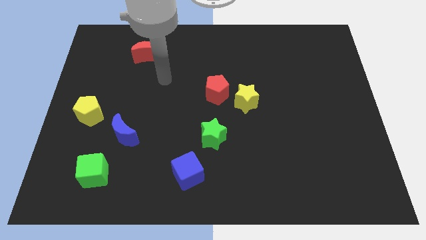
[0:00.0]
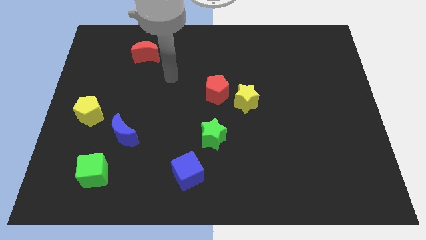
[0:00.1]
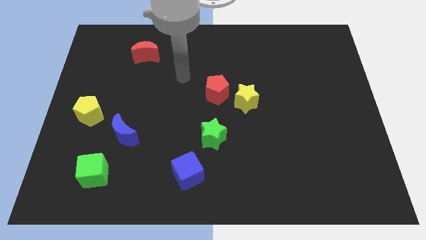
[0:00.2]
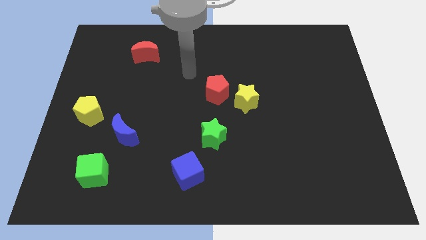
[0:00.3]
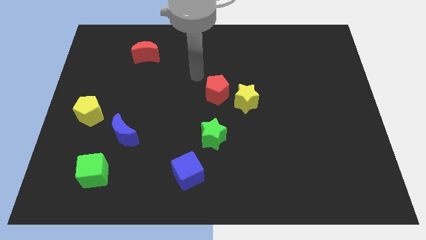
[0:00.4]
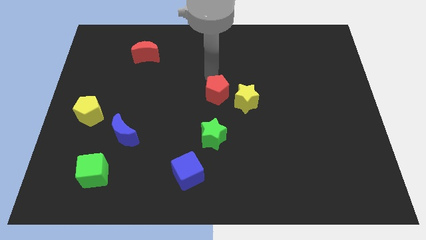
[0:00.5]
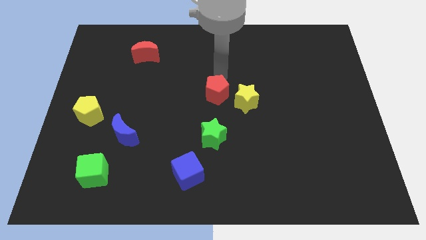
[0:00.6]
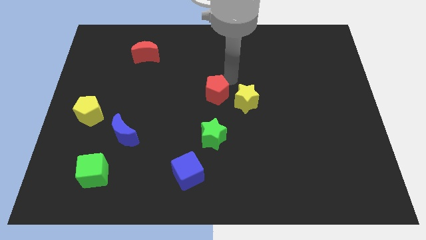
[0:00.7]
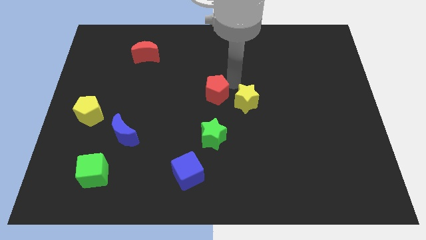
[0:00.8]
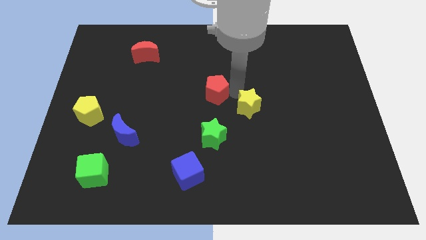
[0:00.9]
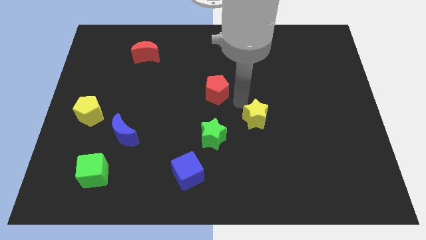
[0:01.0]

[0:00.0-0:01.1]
pull the red pentagon apart from the yellow star

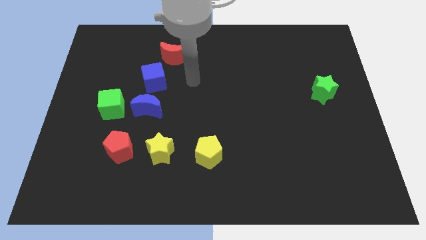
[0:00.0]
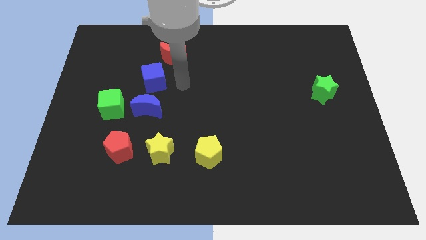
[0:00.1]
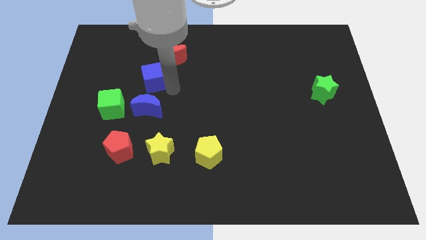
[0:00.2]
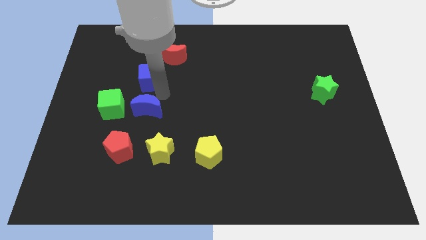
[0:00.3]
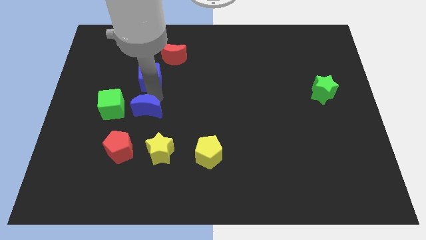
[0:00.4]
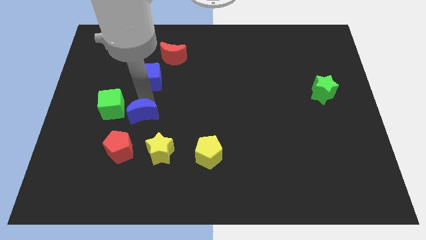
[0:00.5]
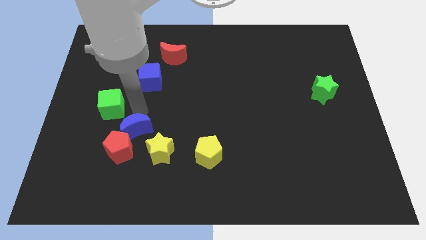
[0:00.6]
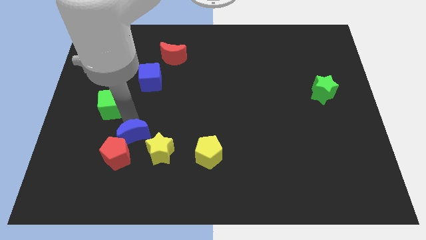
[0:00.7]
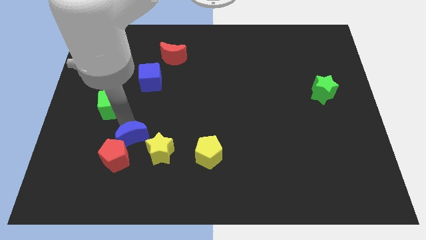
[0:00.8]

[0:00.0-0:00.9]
move the green cube away from the blue moon

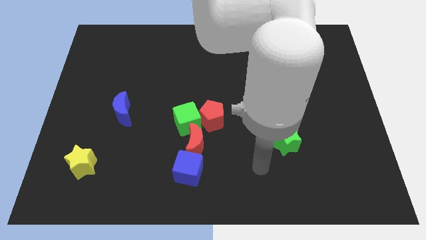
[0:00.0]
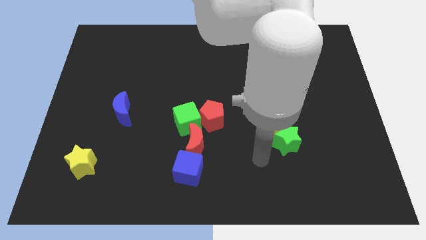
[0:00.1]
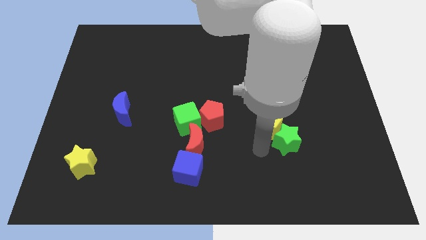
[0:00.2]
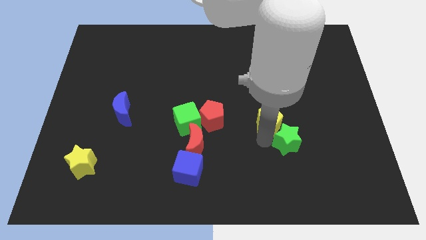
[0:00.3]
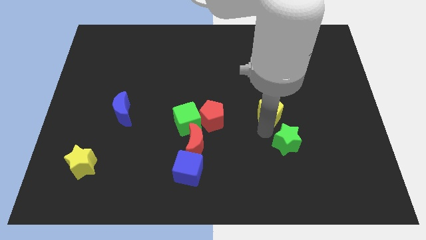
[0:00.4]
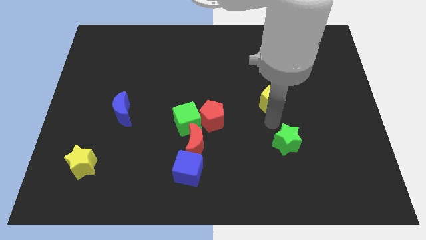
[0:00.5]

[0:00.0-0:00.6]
pull the green star apart from the yellow pentagon

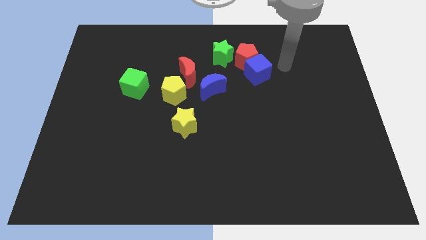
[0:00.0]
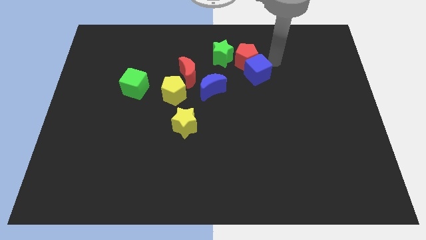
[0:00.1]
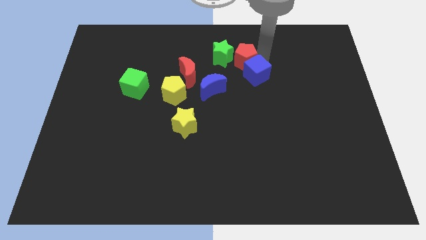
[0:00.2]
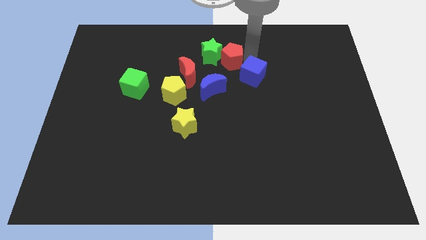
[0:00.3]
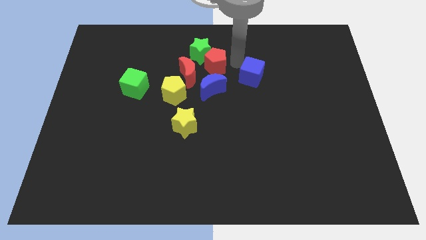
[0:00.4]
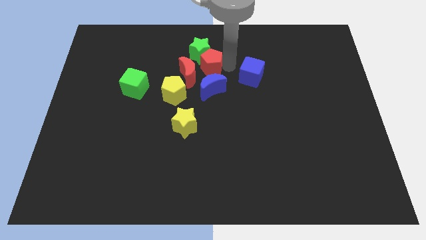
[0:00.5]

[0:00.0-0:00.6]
move the blue cube away from the red pentagon

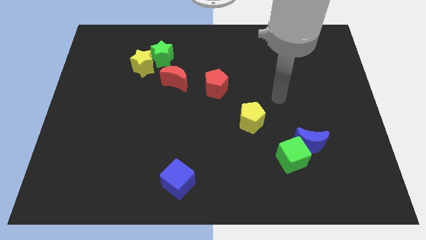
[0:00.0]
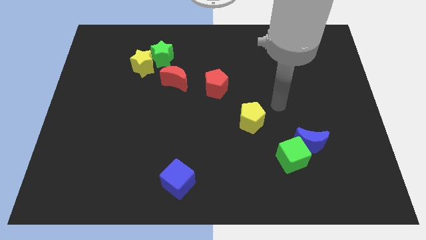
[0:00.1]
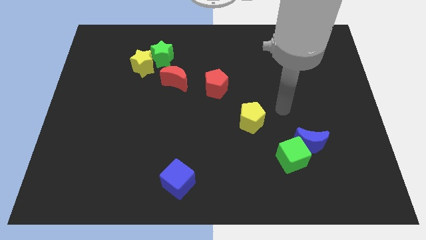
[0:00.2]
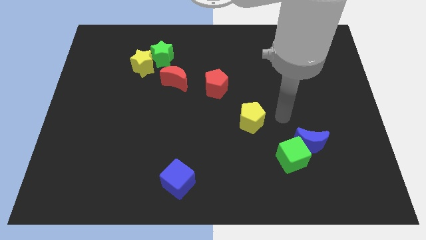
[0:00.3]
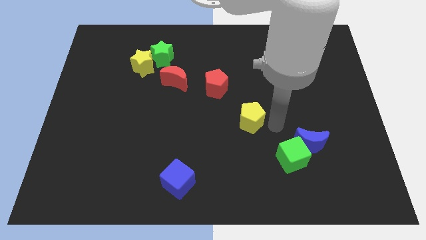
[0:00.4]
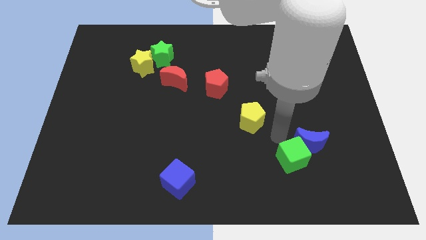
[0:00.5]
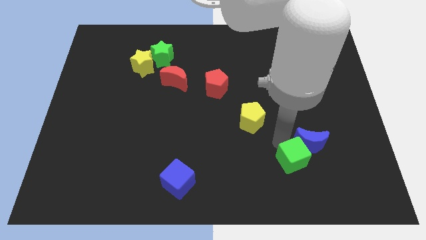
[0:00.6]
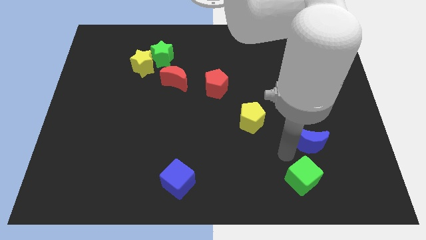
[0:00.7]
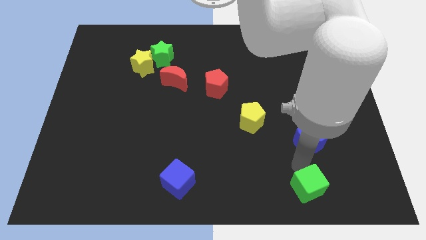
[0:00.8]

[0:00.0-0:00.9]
move the blue moon away from the green cube

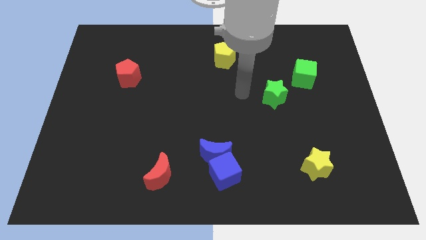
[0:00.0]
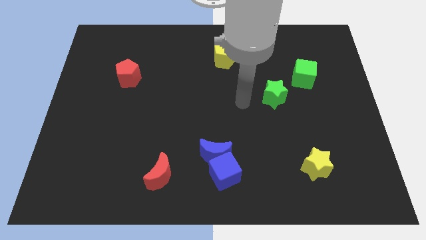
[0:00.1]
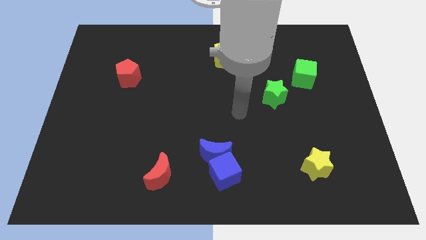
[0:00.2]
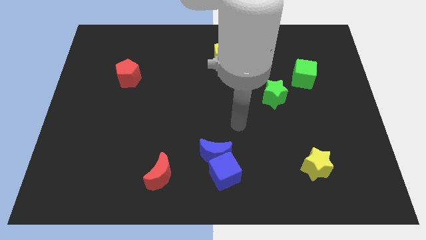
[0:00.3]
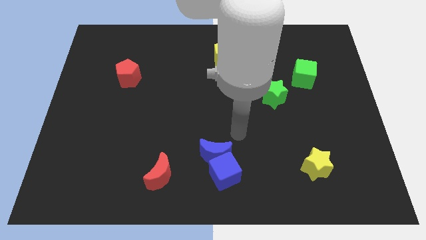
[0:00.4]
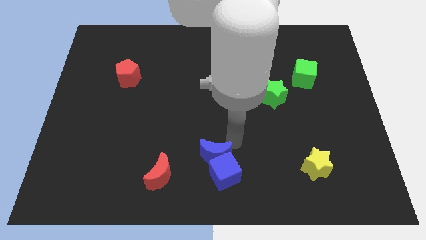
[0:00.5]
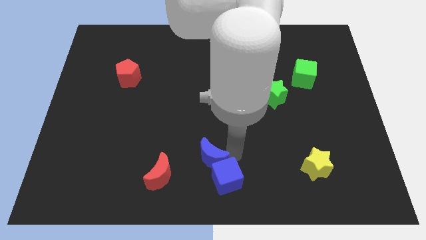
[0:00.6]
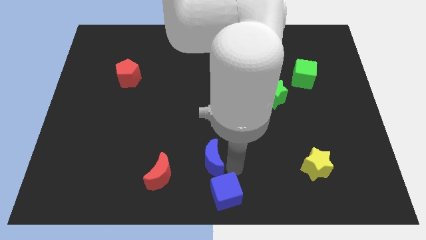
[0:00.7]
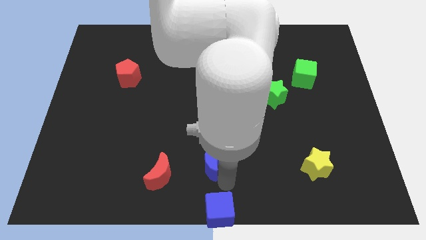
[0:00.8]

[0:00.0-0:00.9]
move the blue moon away from the blue cube

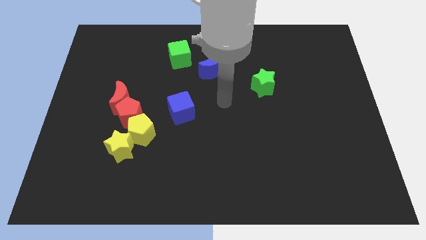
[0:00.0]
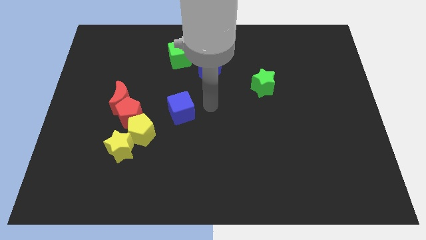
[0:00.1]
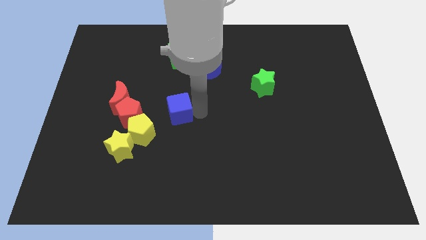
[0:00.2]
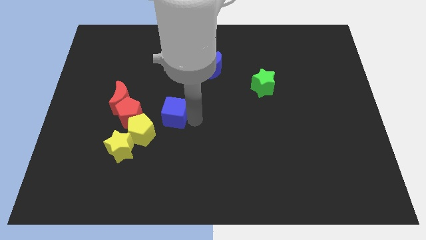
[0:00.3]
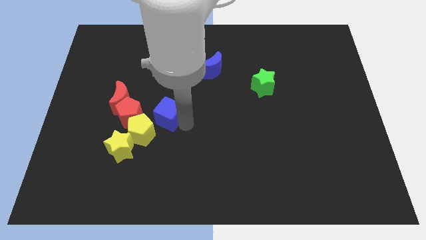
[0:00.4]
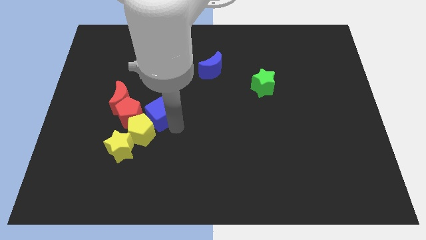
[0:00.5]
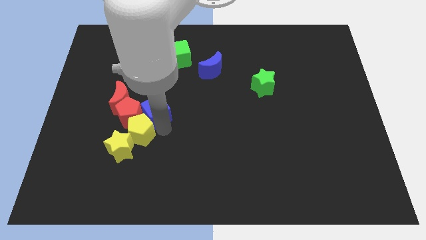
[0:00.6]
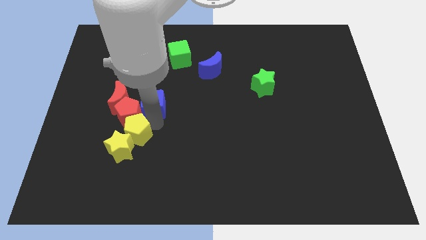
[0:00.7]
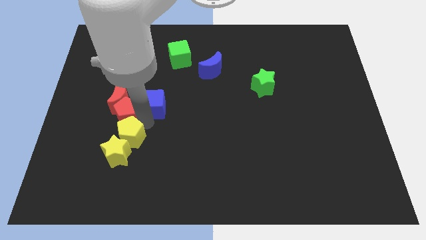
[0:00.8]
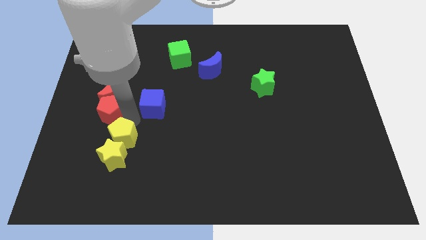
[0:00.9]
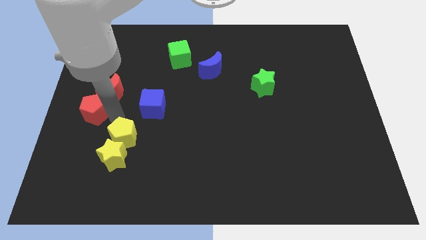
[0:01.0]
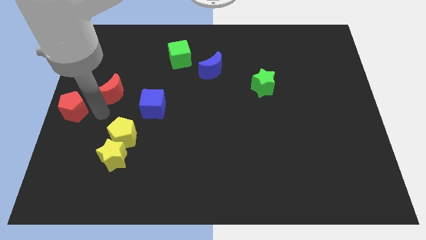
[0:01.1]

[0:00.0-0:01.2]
pull the red moon apart from the red pentagon

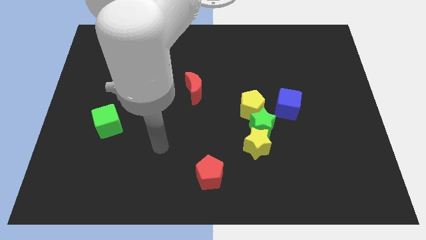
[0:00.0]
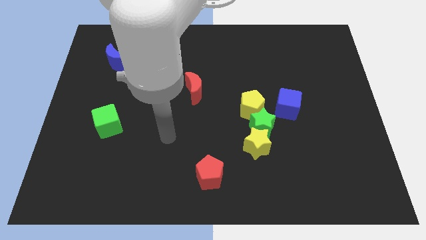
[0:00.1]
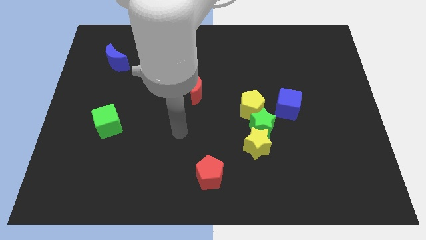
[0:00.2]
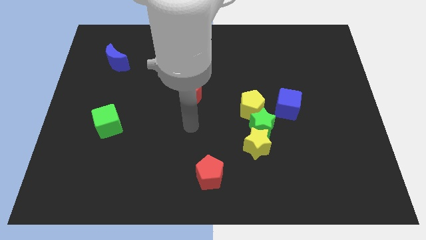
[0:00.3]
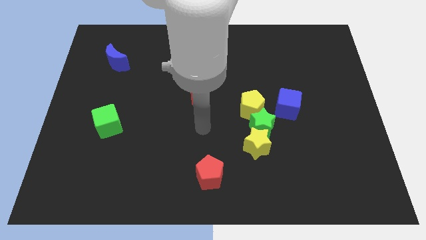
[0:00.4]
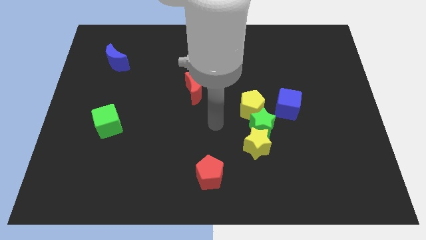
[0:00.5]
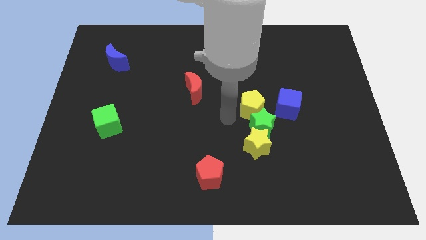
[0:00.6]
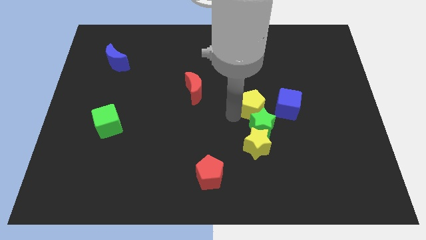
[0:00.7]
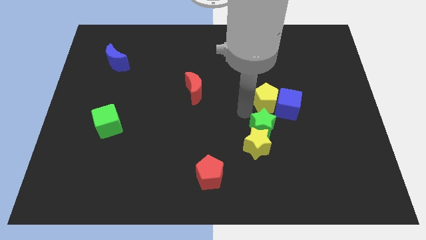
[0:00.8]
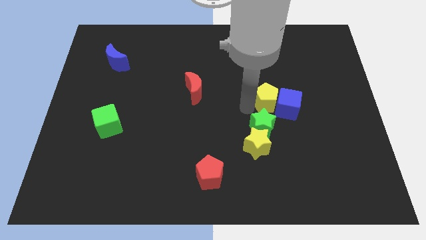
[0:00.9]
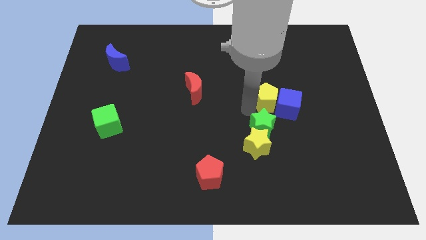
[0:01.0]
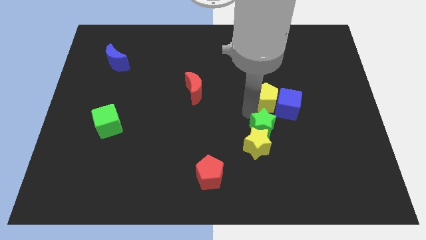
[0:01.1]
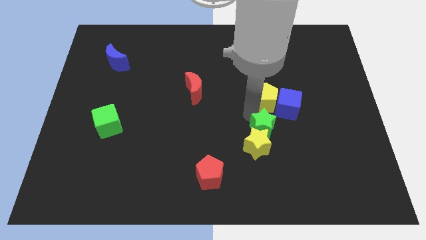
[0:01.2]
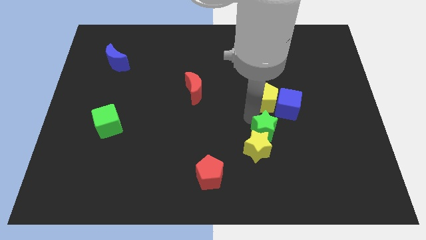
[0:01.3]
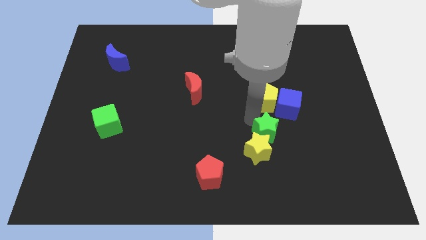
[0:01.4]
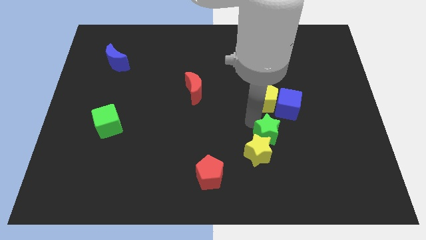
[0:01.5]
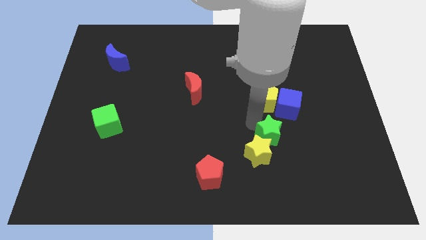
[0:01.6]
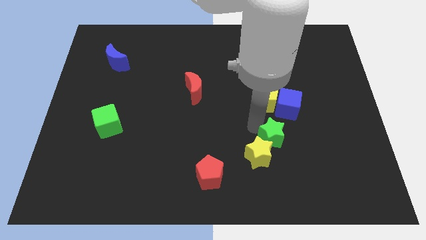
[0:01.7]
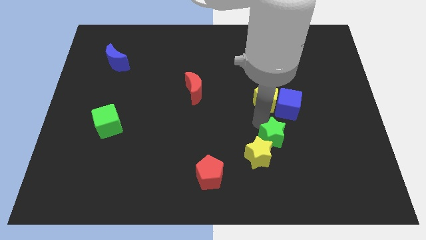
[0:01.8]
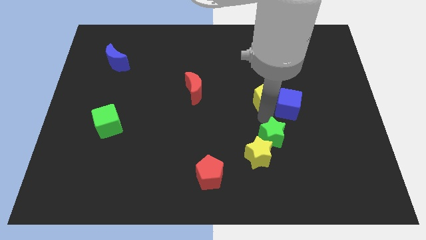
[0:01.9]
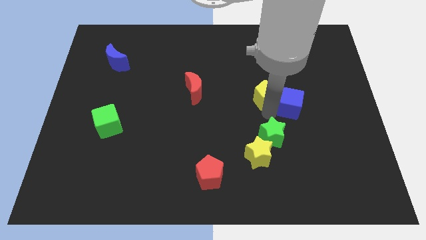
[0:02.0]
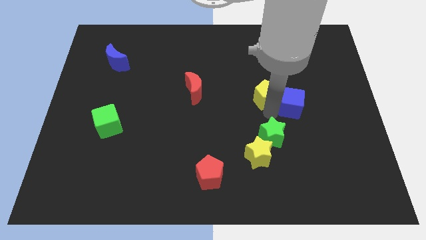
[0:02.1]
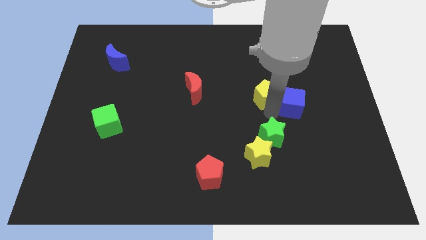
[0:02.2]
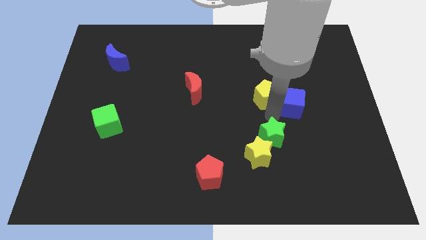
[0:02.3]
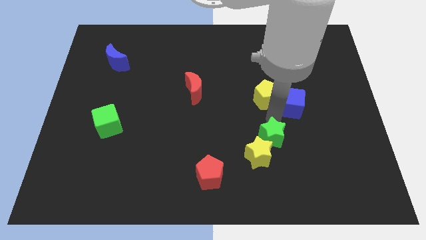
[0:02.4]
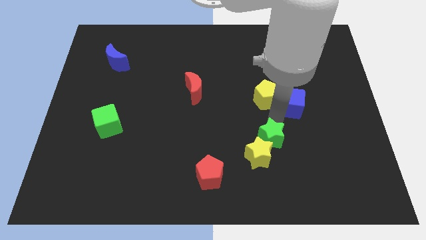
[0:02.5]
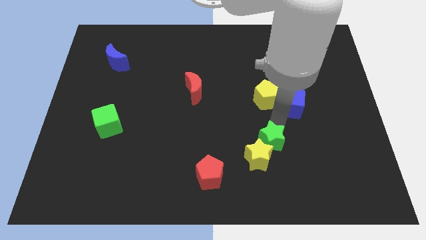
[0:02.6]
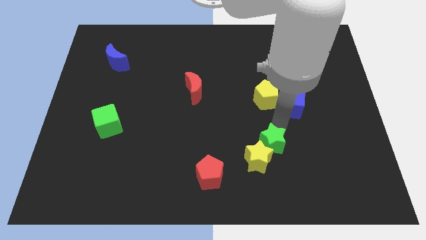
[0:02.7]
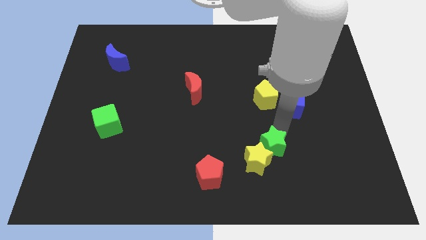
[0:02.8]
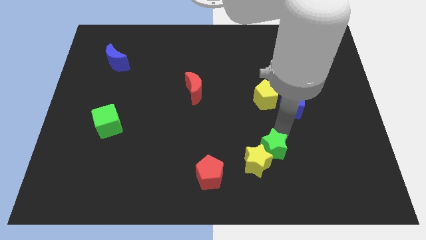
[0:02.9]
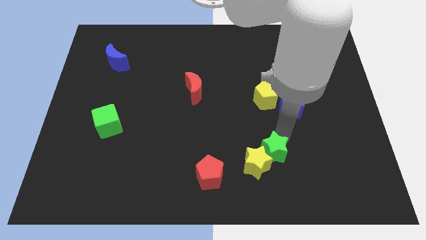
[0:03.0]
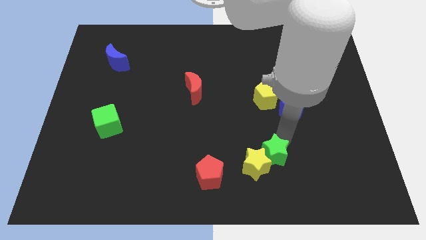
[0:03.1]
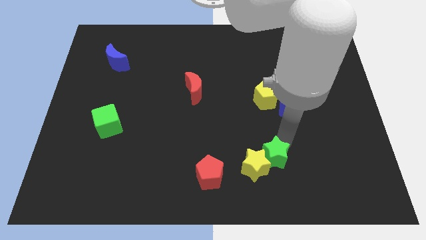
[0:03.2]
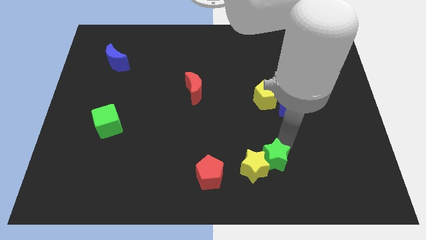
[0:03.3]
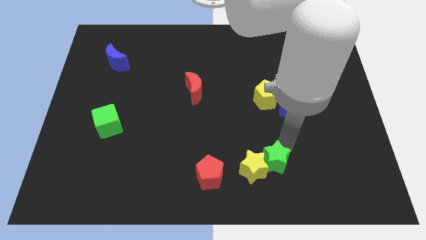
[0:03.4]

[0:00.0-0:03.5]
separate the green star from the yellow star, yellow pentagon, and blue cube
